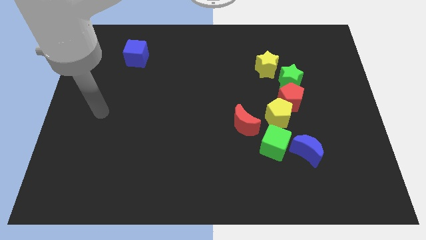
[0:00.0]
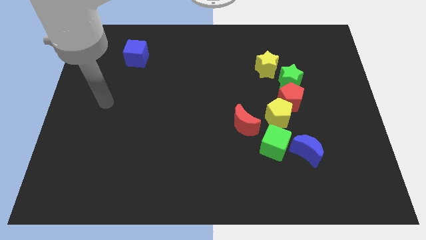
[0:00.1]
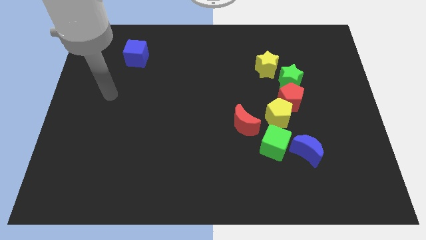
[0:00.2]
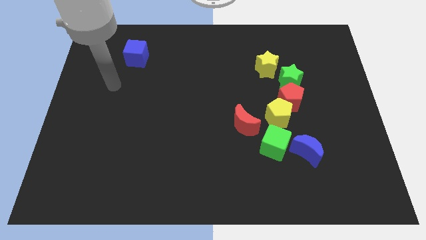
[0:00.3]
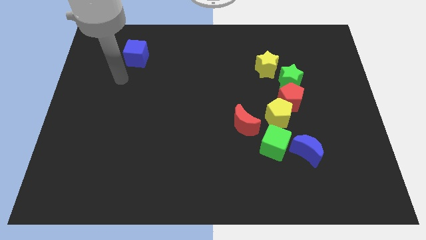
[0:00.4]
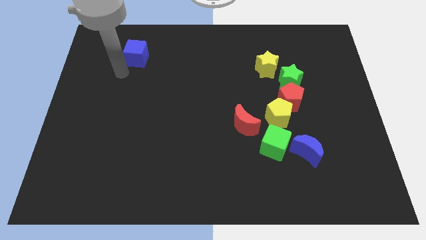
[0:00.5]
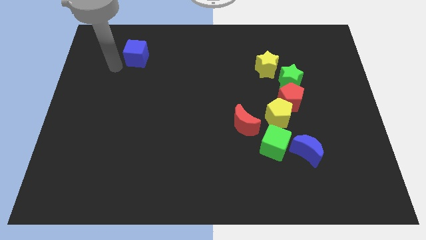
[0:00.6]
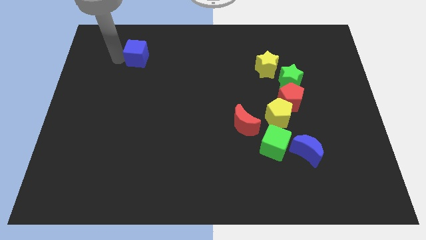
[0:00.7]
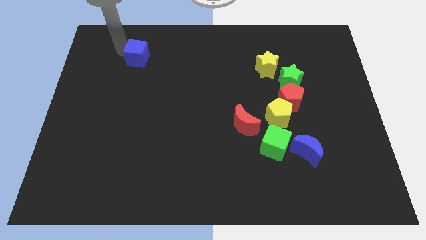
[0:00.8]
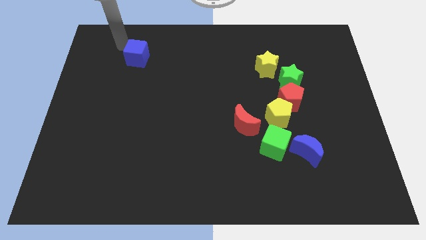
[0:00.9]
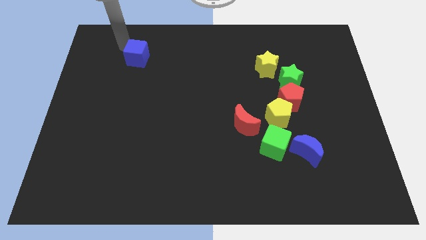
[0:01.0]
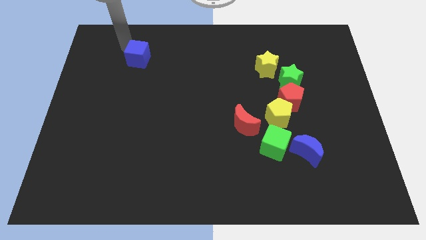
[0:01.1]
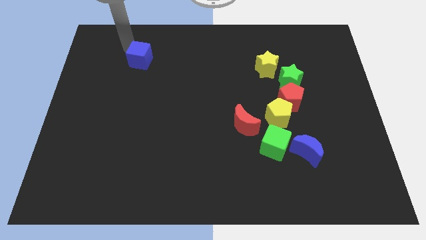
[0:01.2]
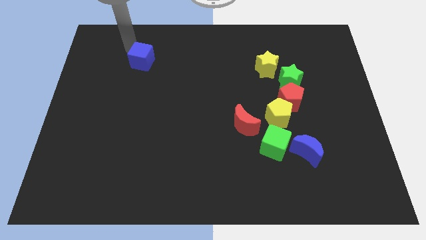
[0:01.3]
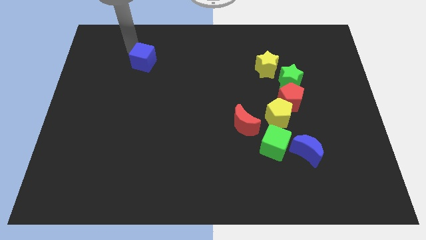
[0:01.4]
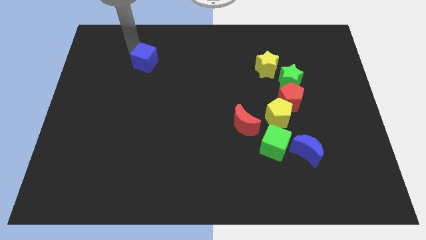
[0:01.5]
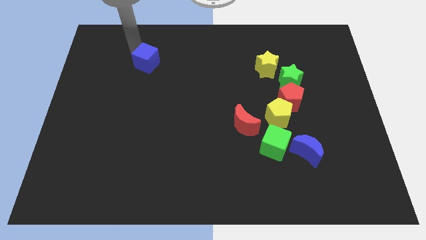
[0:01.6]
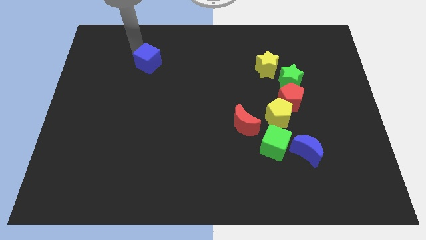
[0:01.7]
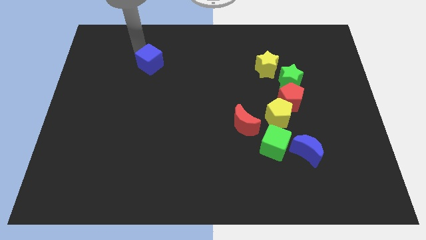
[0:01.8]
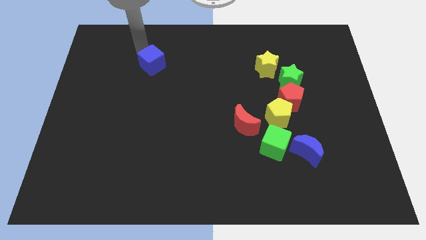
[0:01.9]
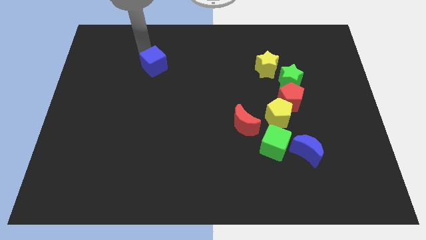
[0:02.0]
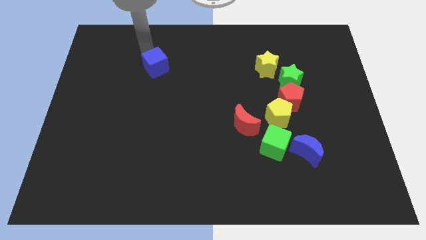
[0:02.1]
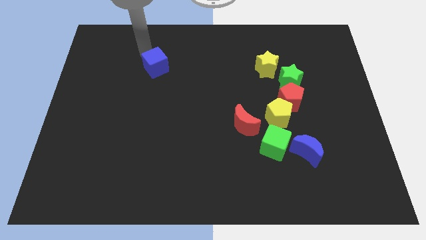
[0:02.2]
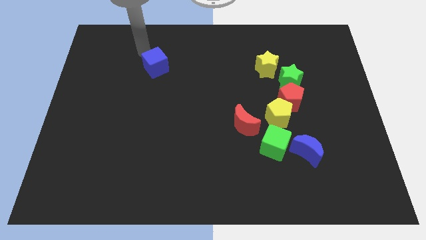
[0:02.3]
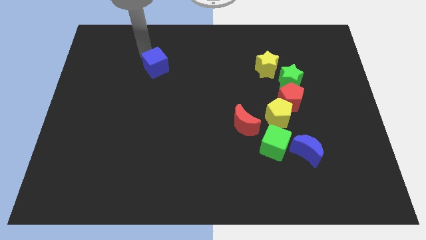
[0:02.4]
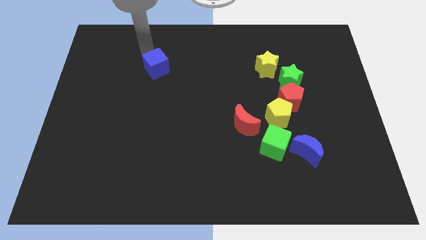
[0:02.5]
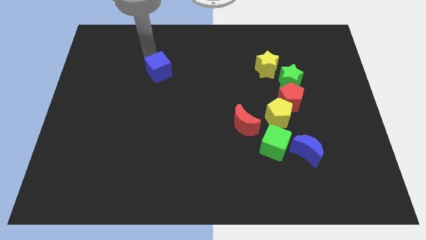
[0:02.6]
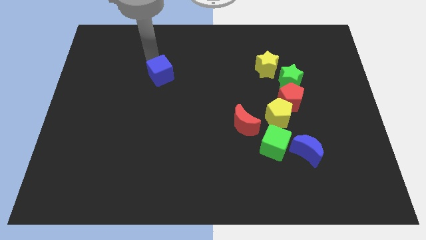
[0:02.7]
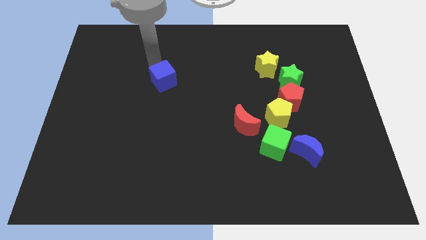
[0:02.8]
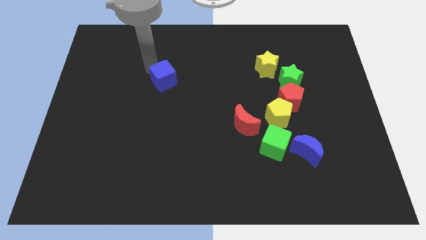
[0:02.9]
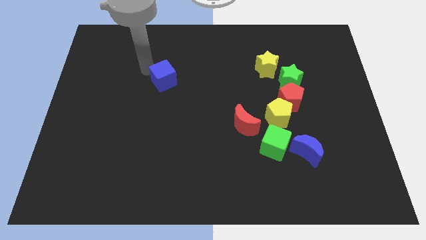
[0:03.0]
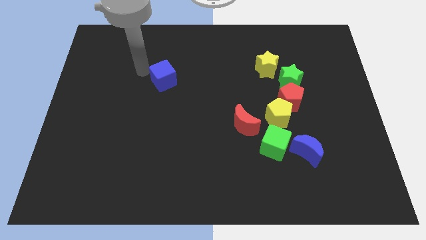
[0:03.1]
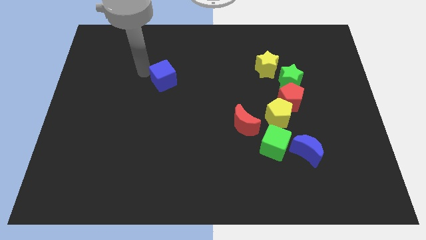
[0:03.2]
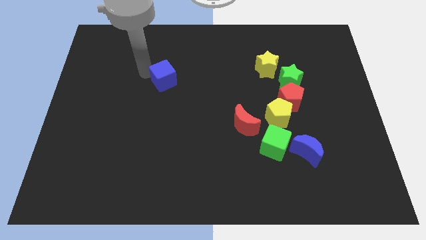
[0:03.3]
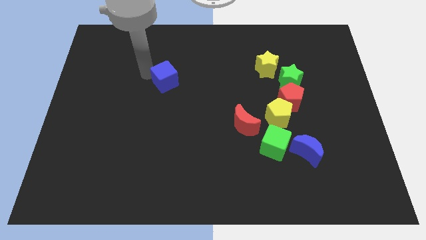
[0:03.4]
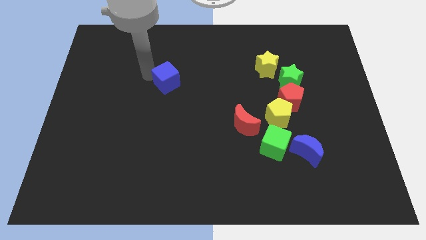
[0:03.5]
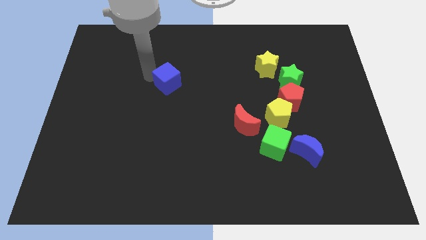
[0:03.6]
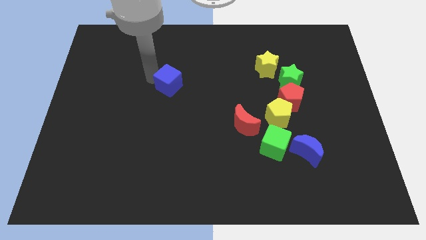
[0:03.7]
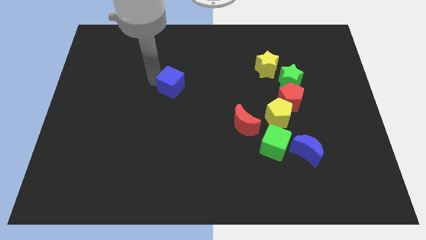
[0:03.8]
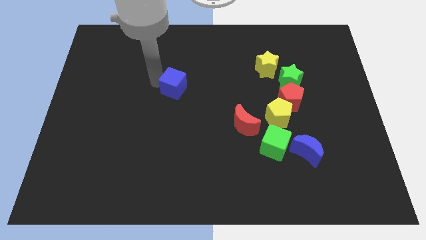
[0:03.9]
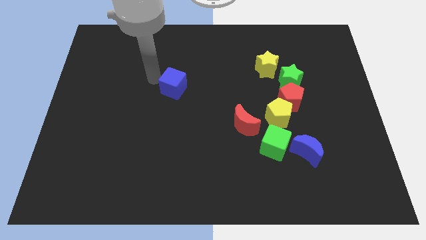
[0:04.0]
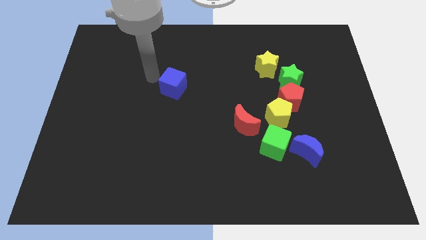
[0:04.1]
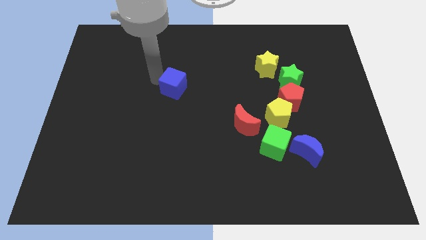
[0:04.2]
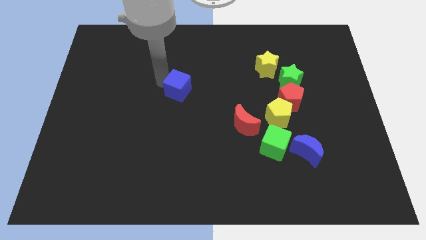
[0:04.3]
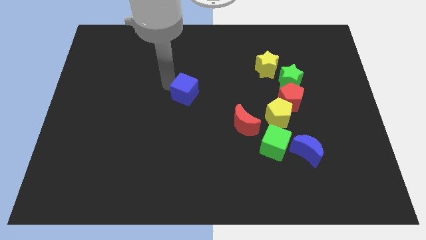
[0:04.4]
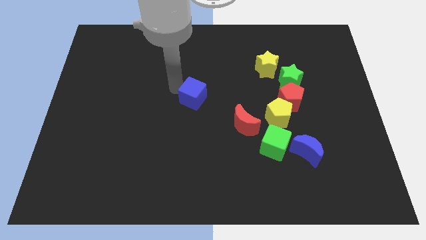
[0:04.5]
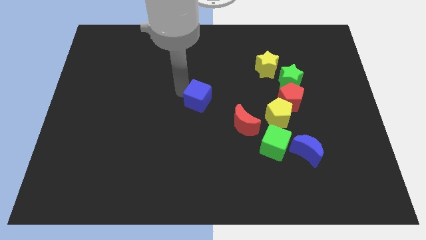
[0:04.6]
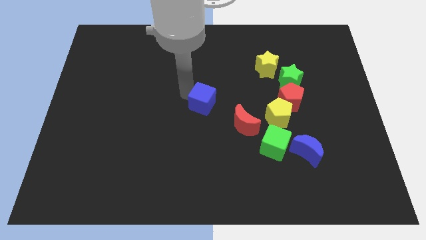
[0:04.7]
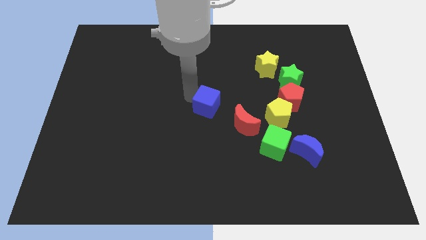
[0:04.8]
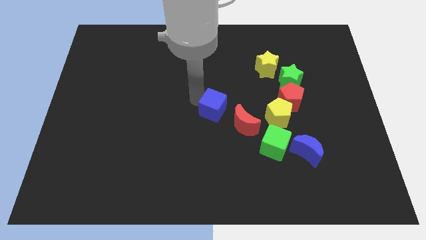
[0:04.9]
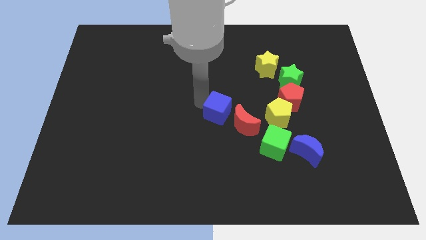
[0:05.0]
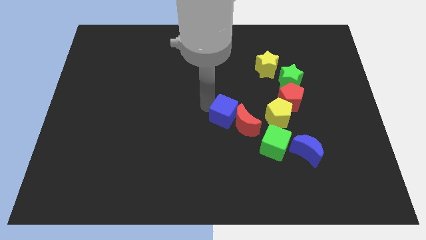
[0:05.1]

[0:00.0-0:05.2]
move the blue cube towards the red moon

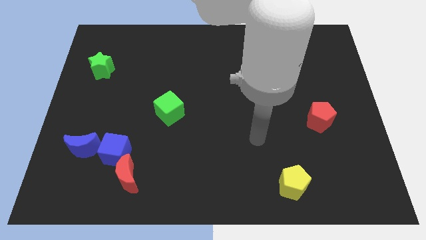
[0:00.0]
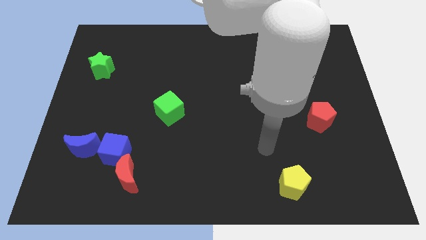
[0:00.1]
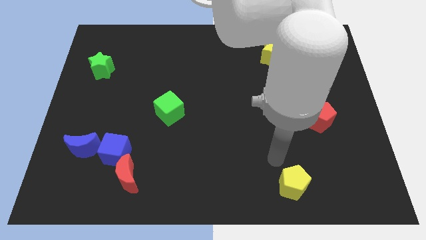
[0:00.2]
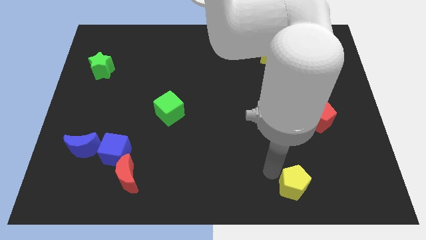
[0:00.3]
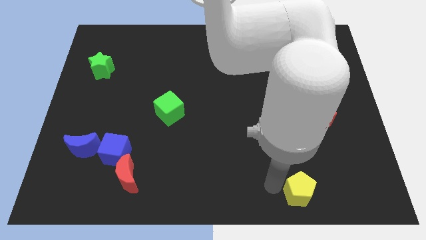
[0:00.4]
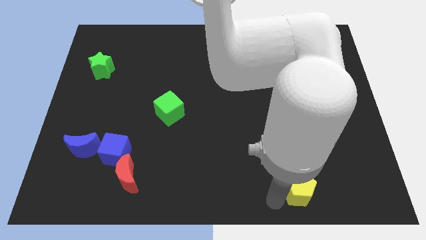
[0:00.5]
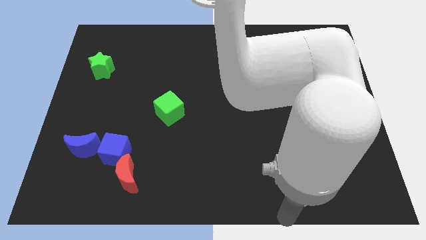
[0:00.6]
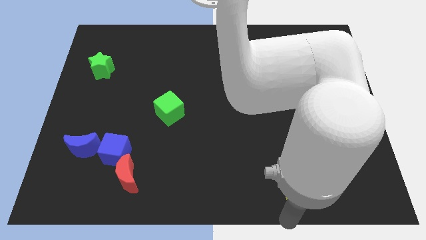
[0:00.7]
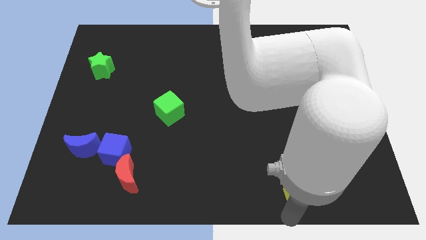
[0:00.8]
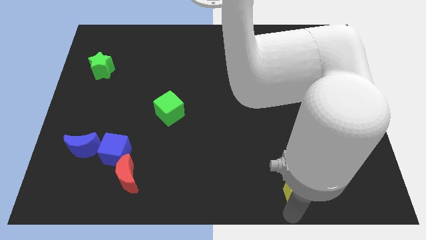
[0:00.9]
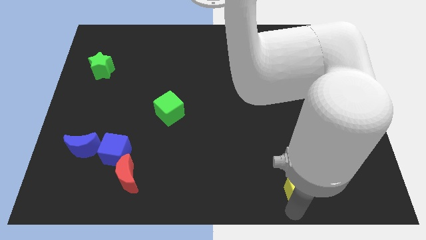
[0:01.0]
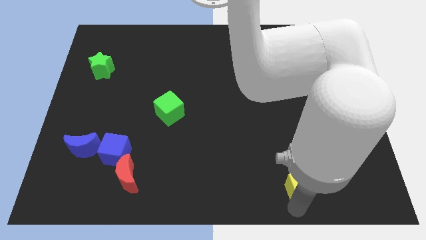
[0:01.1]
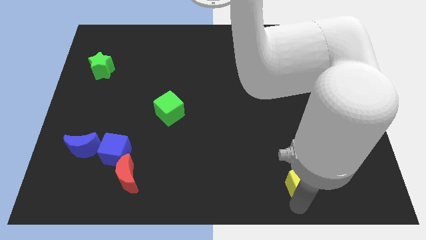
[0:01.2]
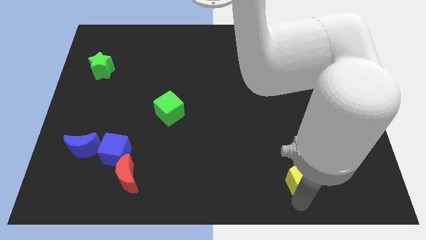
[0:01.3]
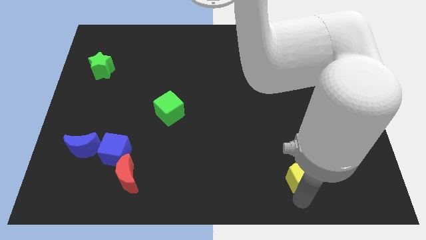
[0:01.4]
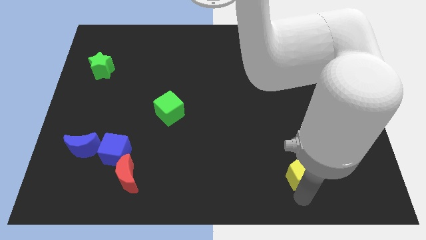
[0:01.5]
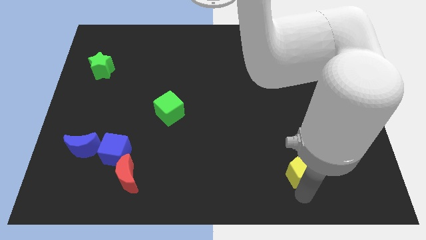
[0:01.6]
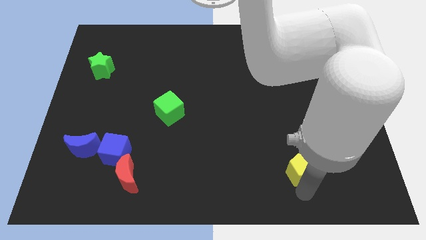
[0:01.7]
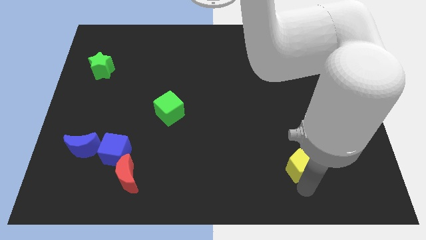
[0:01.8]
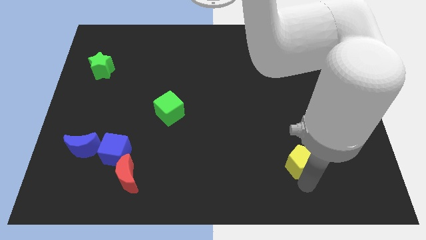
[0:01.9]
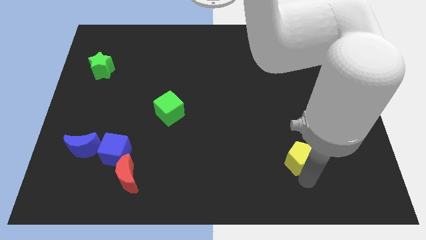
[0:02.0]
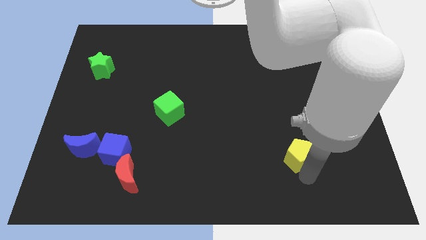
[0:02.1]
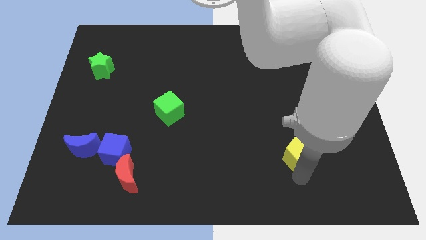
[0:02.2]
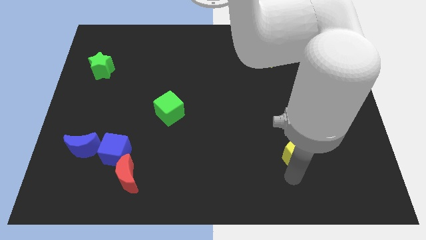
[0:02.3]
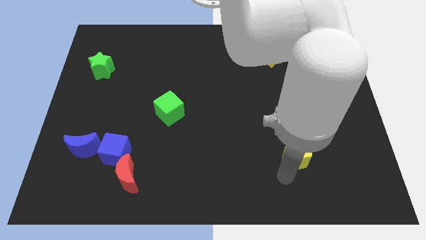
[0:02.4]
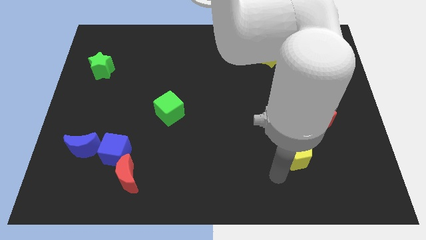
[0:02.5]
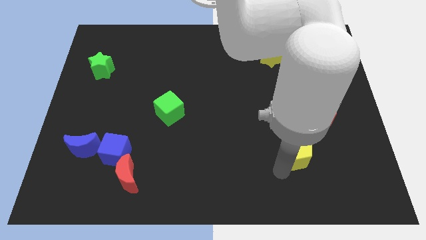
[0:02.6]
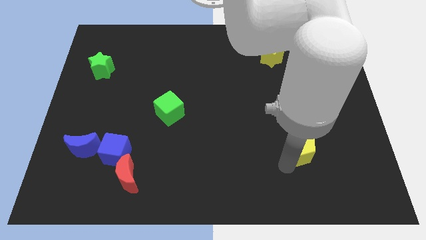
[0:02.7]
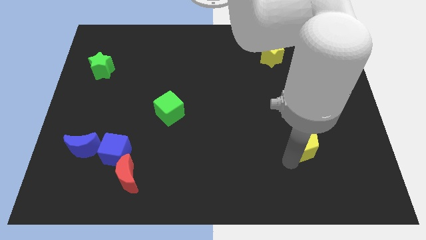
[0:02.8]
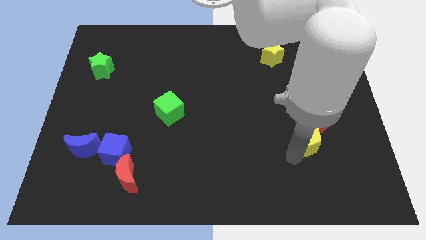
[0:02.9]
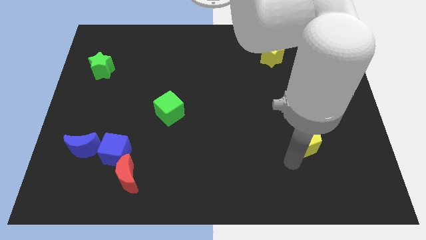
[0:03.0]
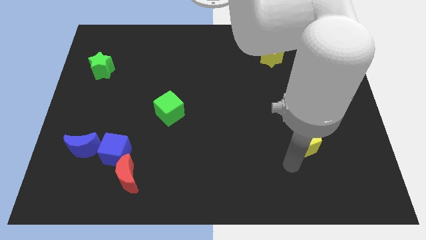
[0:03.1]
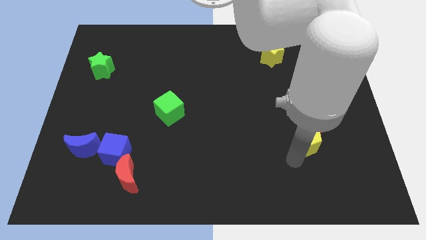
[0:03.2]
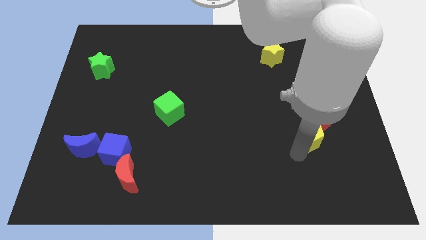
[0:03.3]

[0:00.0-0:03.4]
push the yellow pentagon to the red pentagon
